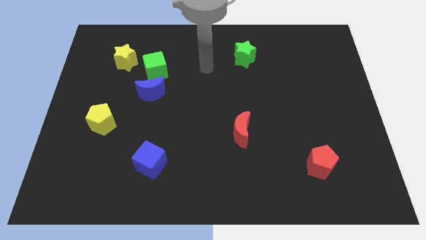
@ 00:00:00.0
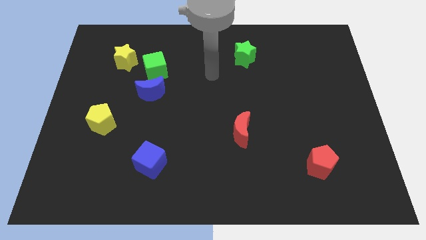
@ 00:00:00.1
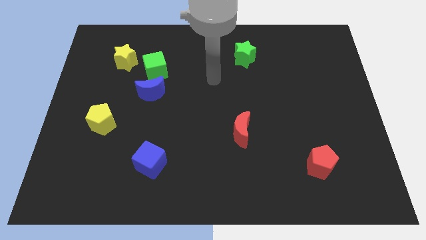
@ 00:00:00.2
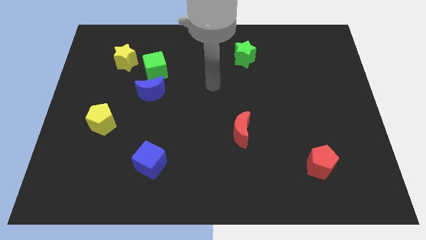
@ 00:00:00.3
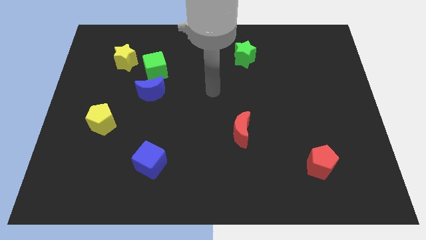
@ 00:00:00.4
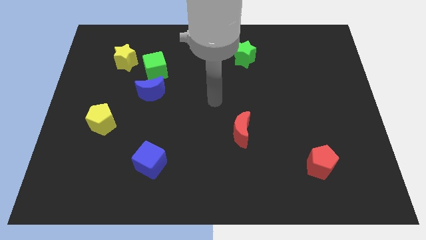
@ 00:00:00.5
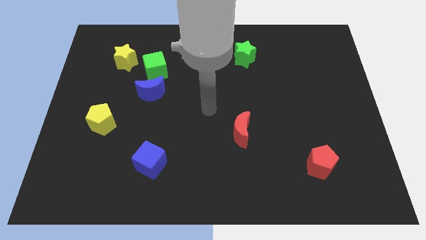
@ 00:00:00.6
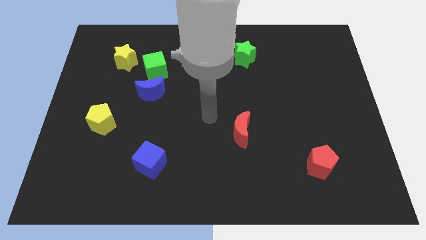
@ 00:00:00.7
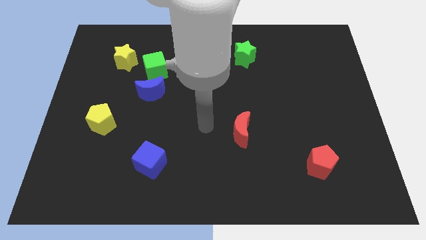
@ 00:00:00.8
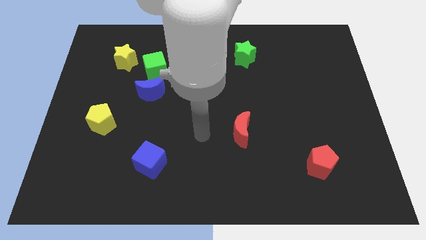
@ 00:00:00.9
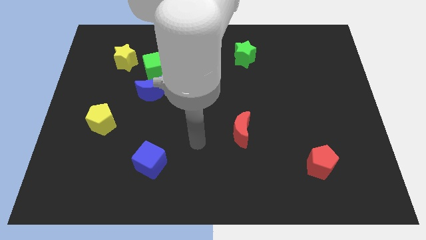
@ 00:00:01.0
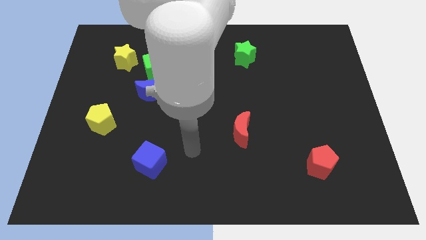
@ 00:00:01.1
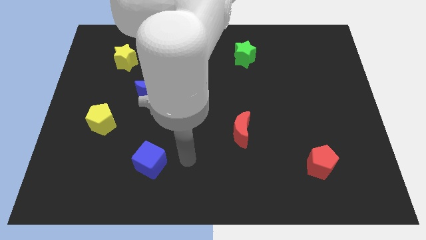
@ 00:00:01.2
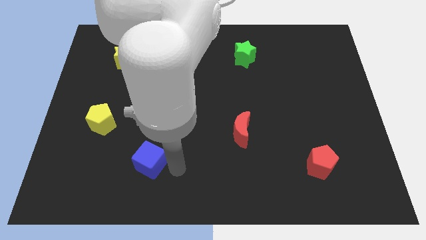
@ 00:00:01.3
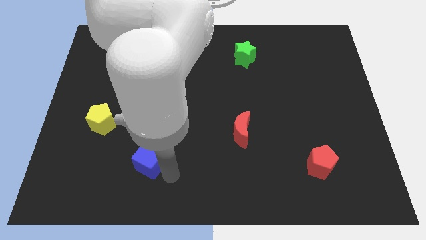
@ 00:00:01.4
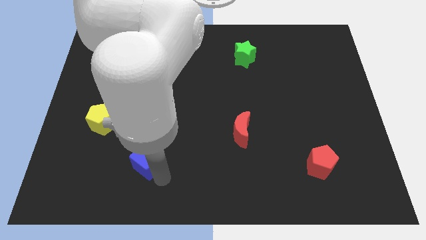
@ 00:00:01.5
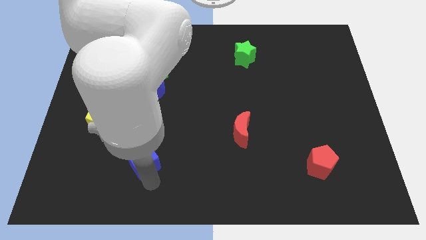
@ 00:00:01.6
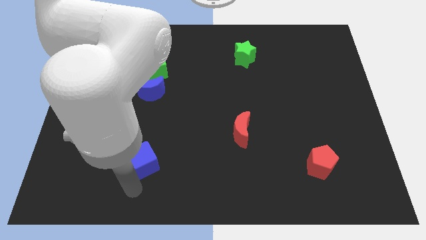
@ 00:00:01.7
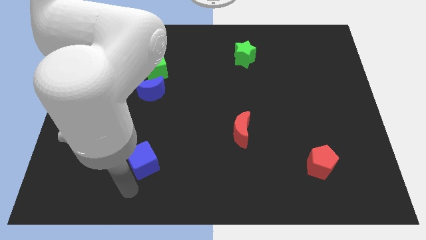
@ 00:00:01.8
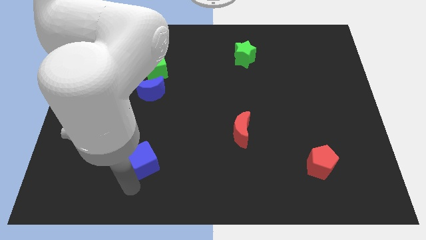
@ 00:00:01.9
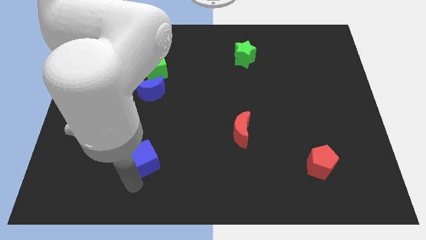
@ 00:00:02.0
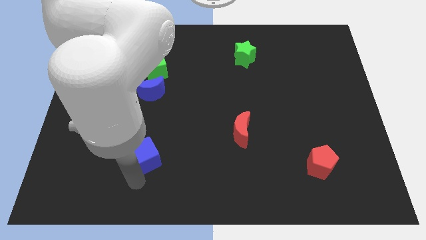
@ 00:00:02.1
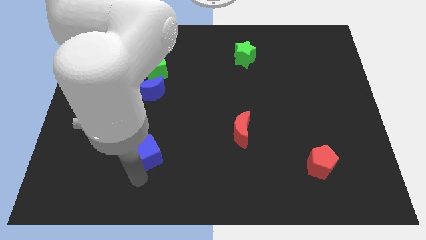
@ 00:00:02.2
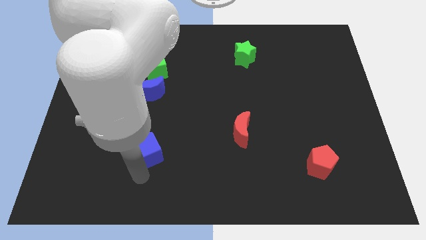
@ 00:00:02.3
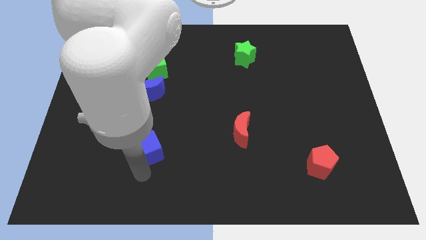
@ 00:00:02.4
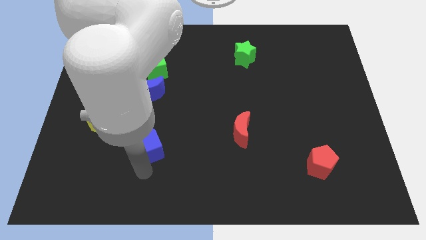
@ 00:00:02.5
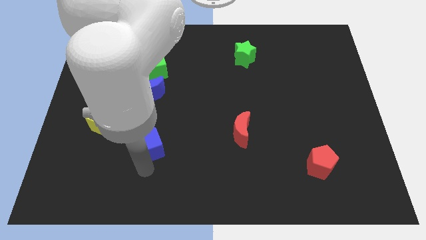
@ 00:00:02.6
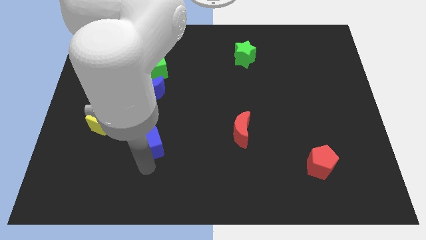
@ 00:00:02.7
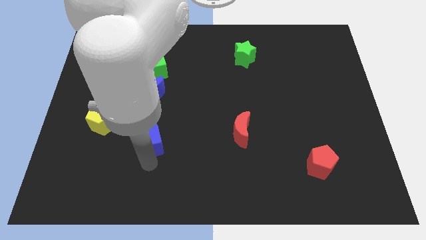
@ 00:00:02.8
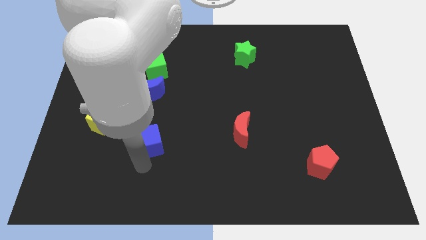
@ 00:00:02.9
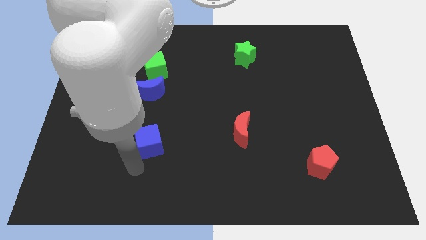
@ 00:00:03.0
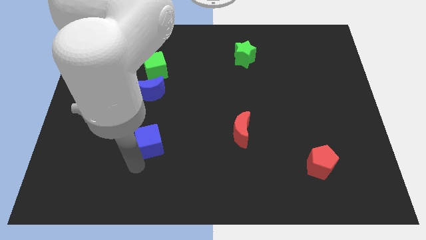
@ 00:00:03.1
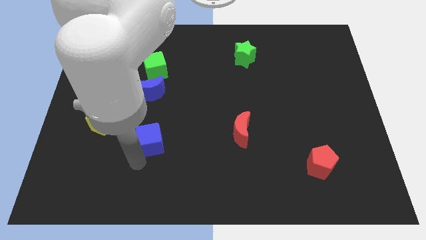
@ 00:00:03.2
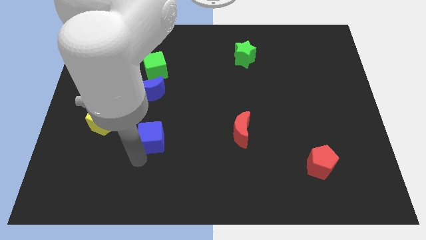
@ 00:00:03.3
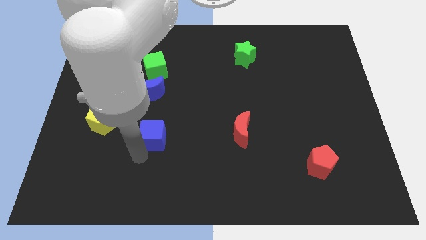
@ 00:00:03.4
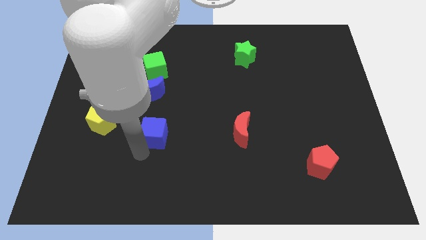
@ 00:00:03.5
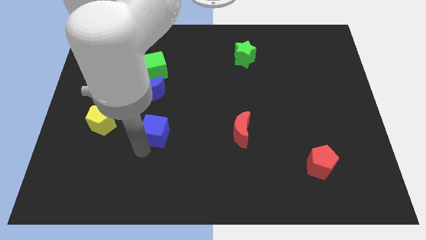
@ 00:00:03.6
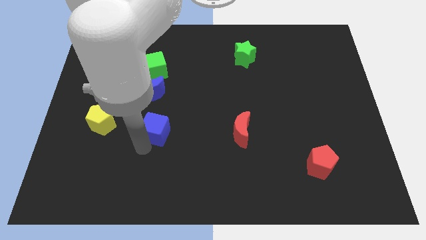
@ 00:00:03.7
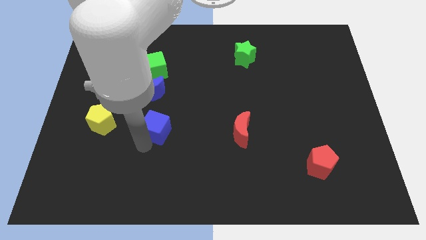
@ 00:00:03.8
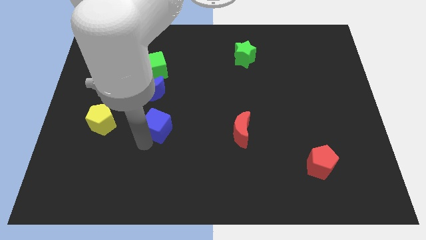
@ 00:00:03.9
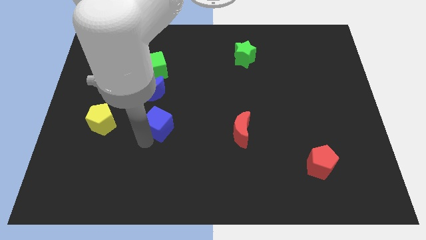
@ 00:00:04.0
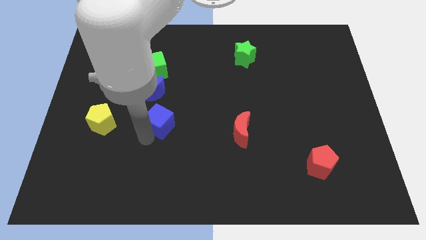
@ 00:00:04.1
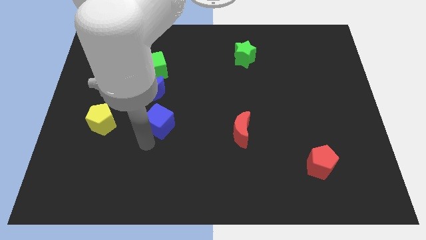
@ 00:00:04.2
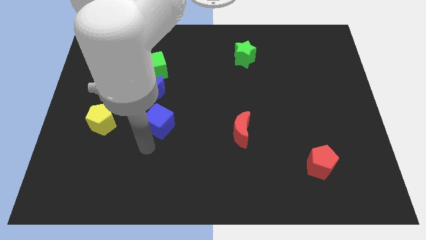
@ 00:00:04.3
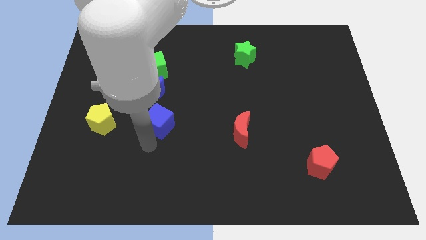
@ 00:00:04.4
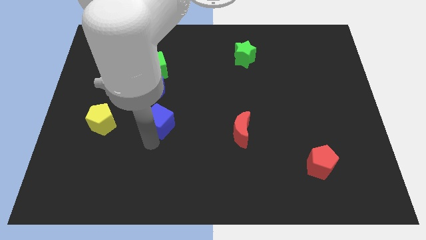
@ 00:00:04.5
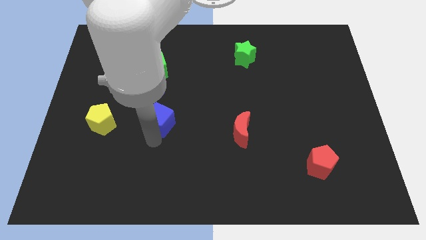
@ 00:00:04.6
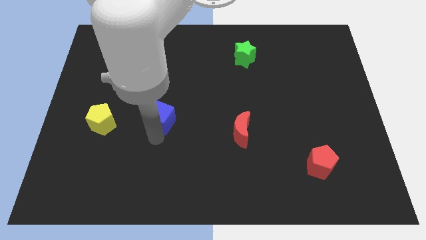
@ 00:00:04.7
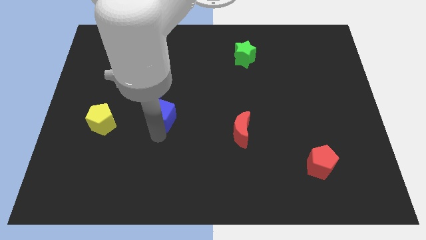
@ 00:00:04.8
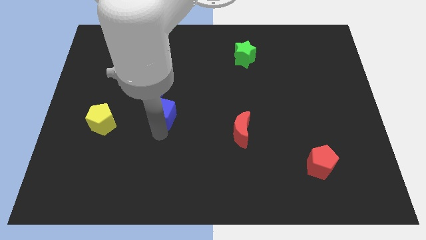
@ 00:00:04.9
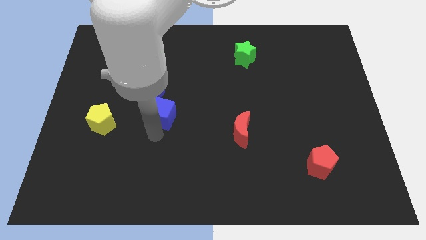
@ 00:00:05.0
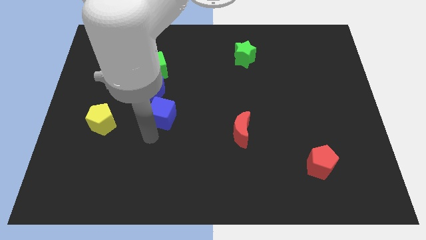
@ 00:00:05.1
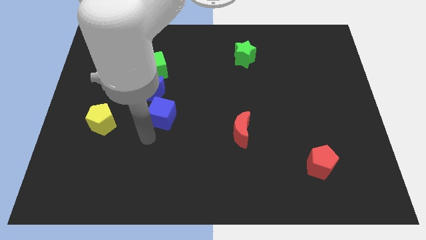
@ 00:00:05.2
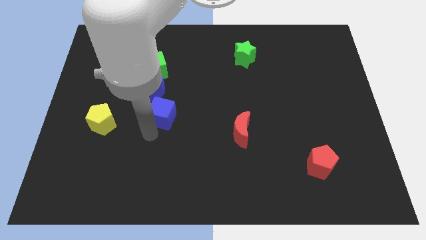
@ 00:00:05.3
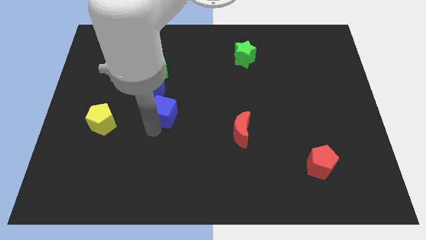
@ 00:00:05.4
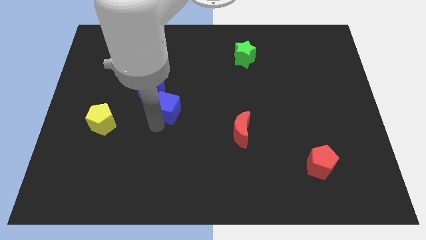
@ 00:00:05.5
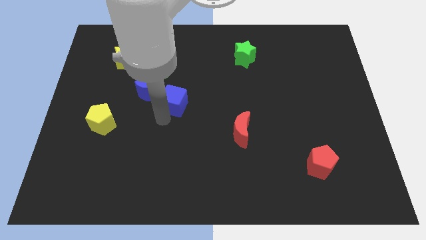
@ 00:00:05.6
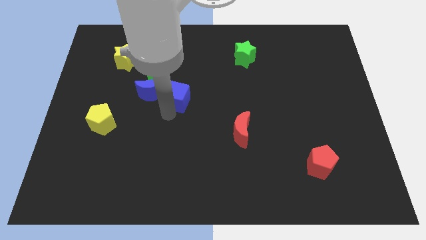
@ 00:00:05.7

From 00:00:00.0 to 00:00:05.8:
push the blue cube diagonally down and to the right of the green cube

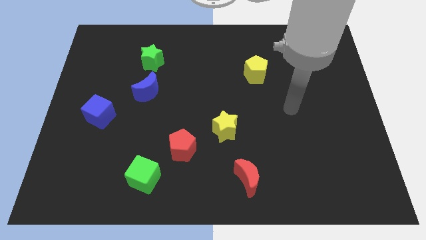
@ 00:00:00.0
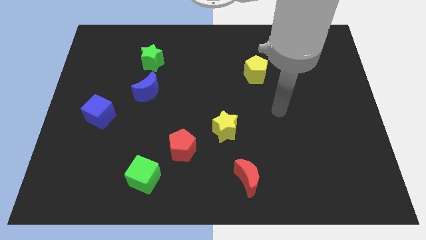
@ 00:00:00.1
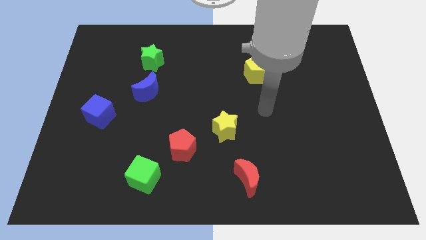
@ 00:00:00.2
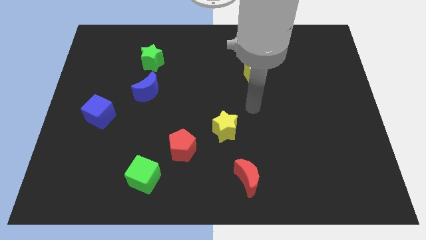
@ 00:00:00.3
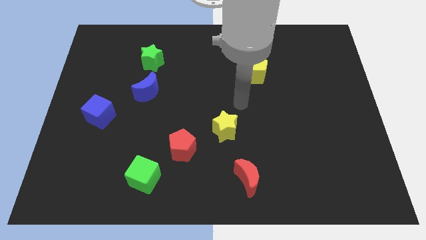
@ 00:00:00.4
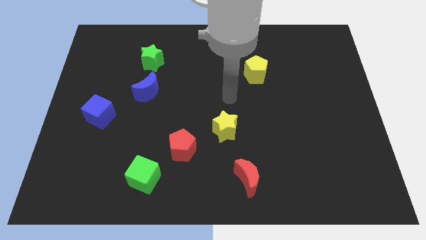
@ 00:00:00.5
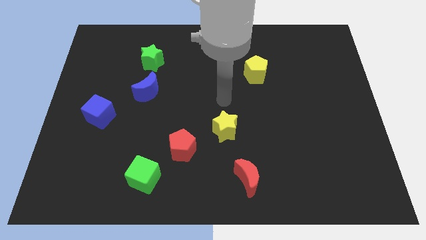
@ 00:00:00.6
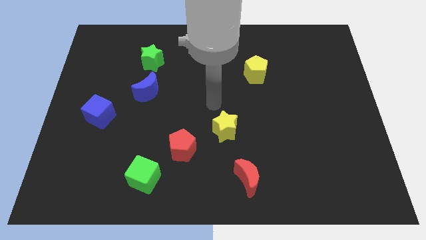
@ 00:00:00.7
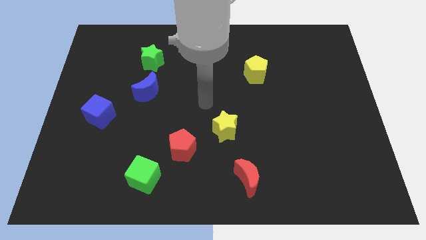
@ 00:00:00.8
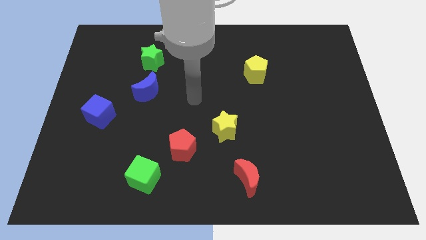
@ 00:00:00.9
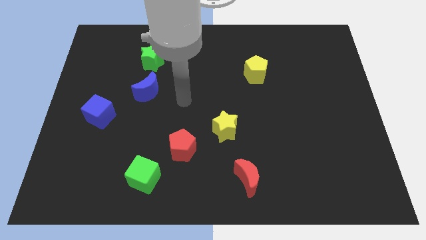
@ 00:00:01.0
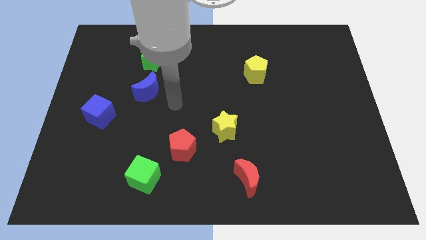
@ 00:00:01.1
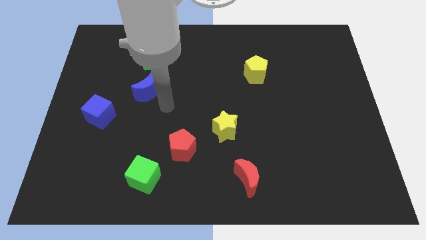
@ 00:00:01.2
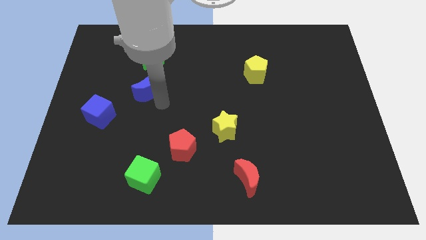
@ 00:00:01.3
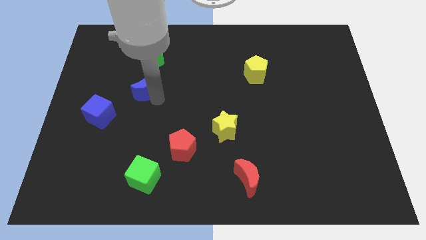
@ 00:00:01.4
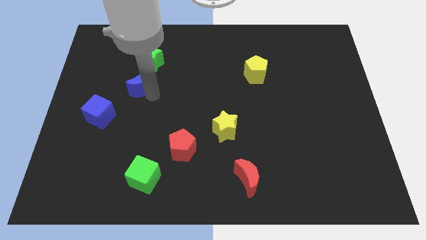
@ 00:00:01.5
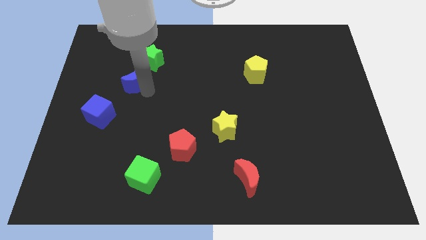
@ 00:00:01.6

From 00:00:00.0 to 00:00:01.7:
put the blue moon to the bottom left of the green star
